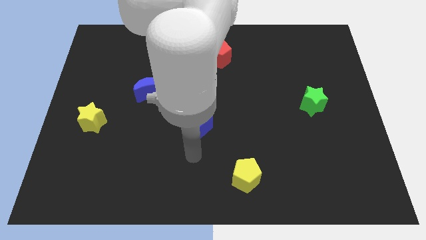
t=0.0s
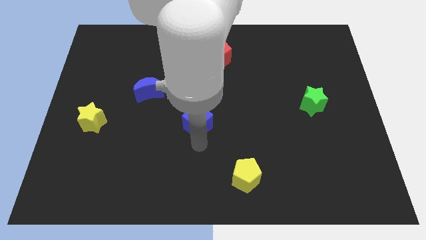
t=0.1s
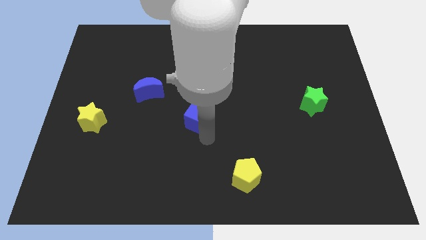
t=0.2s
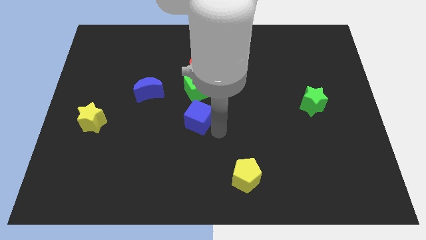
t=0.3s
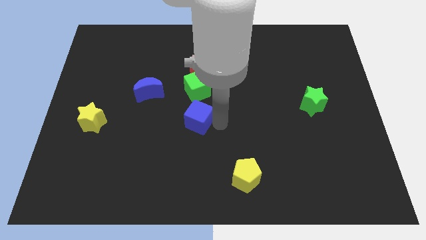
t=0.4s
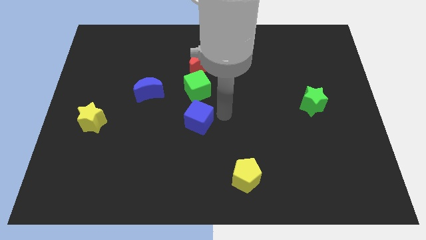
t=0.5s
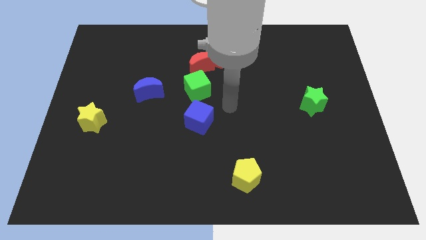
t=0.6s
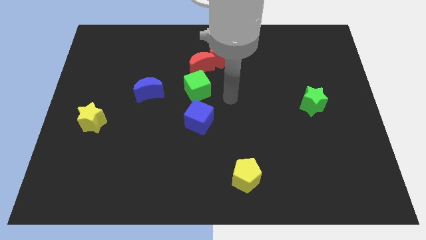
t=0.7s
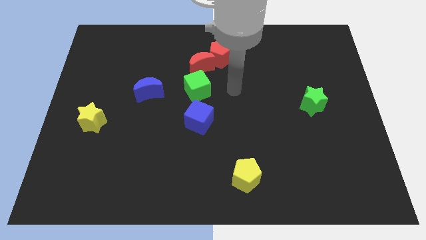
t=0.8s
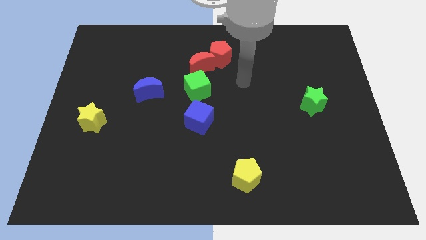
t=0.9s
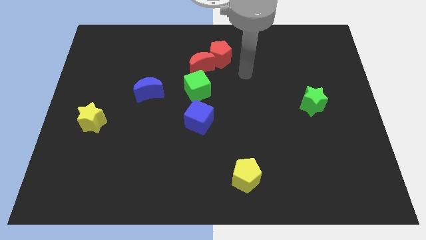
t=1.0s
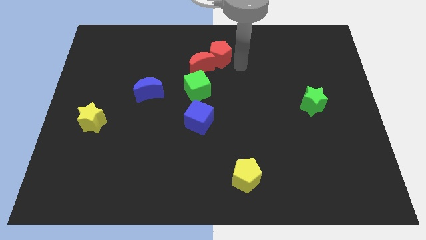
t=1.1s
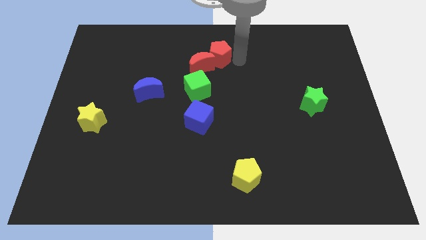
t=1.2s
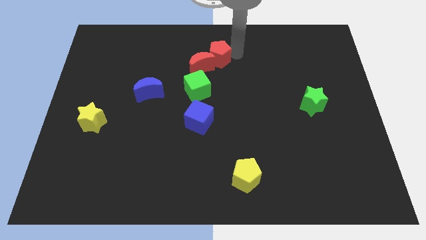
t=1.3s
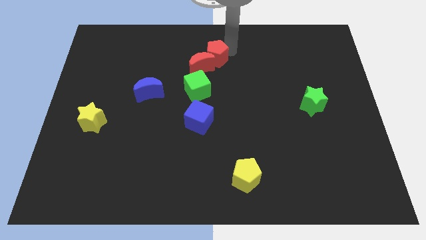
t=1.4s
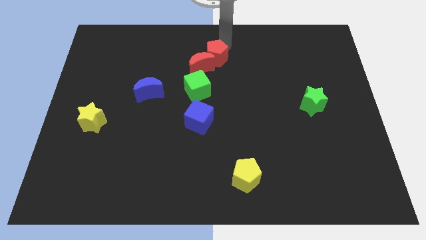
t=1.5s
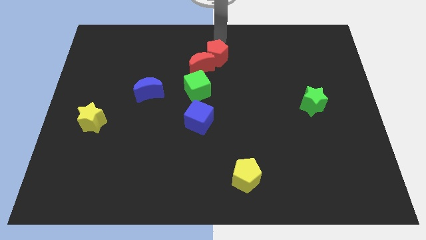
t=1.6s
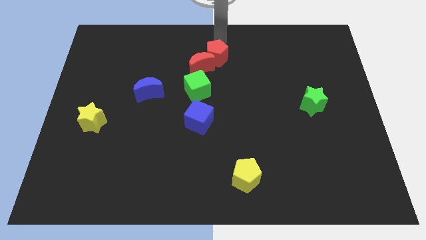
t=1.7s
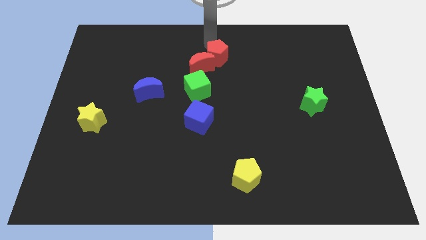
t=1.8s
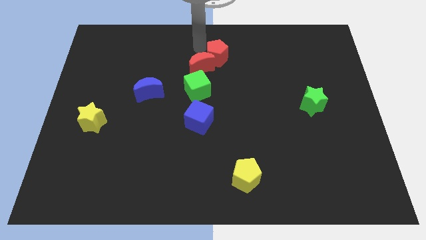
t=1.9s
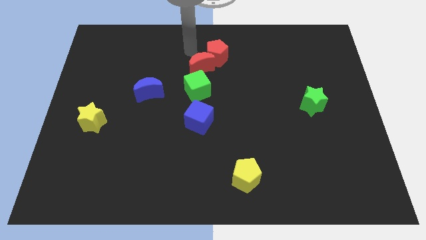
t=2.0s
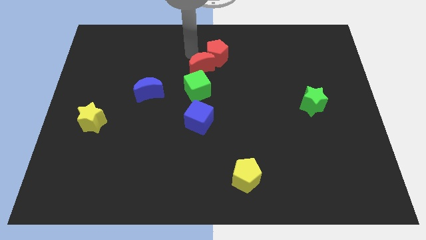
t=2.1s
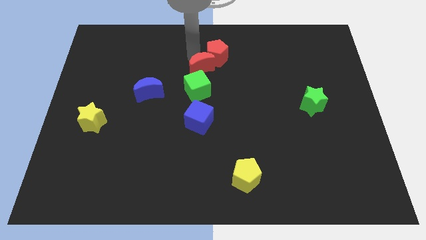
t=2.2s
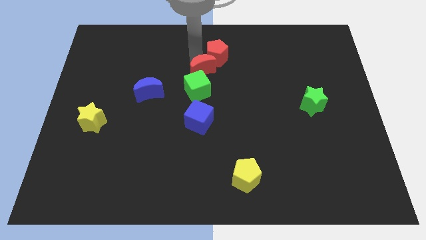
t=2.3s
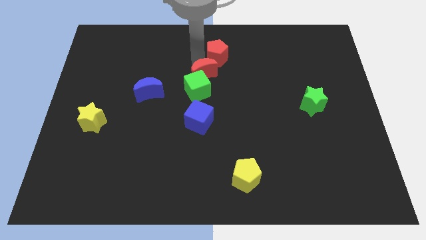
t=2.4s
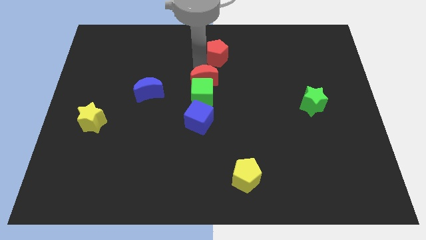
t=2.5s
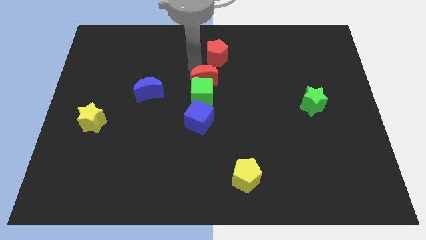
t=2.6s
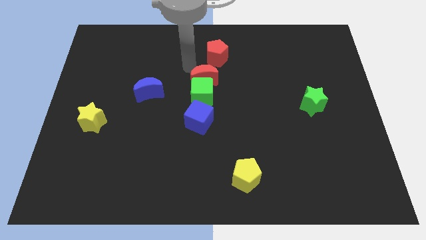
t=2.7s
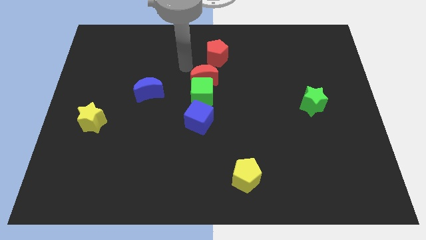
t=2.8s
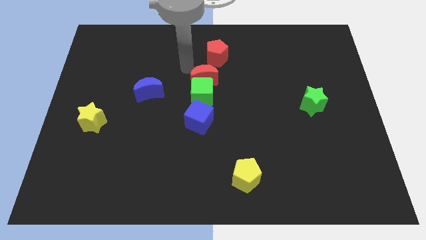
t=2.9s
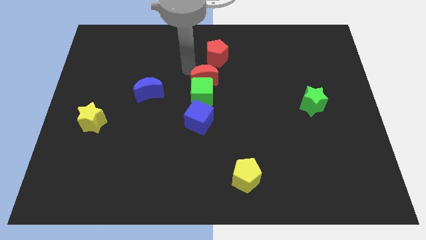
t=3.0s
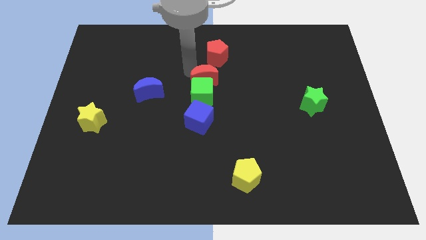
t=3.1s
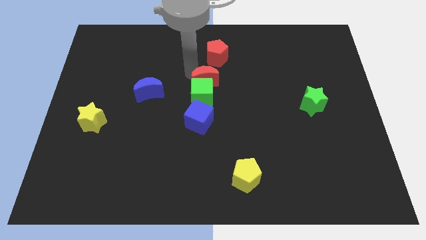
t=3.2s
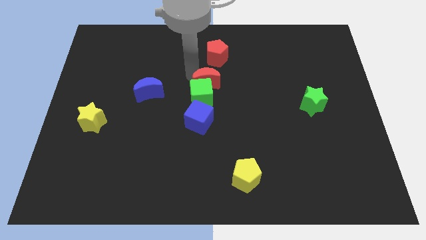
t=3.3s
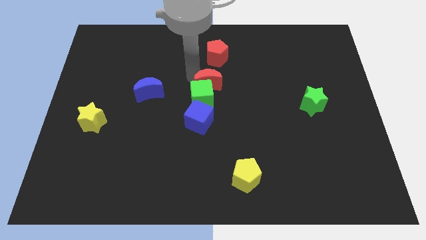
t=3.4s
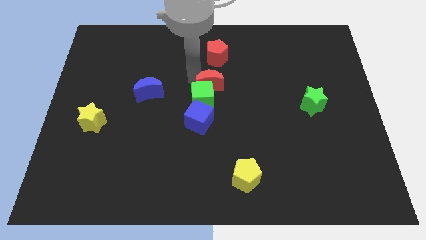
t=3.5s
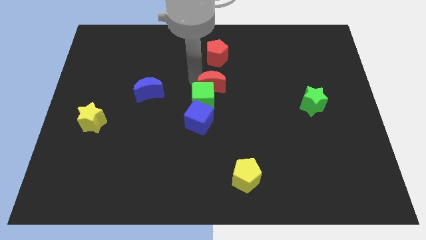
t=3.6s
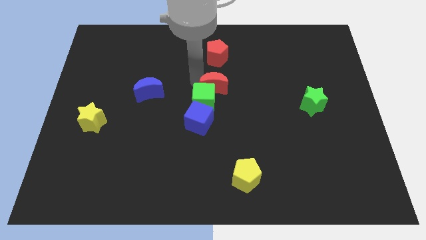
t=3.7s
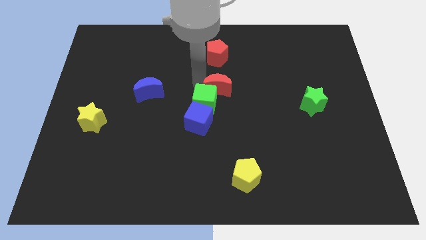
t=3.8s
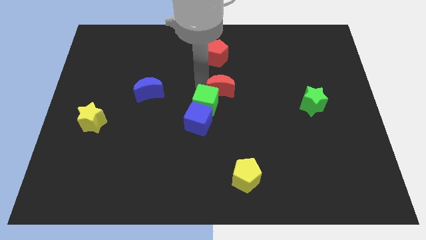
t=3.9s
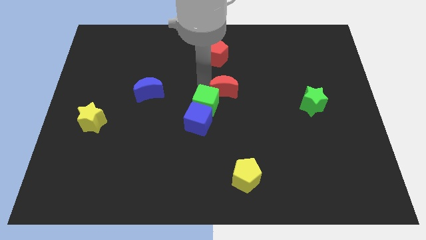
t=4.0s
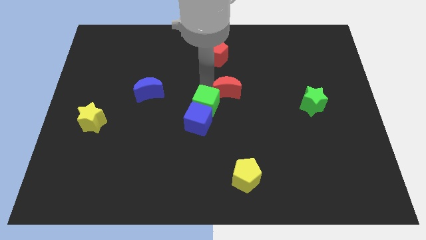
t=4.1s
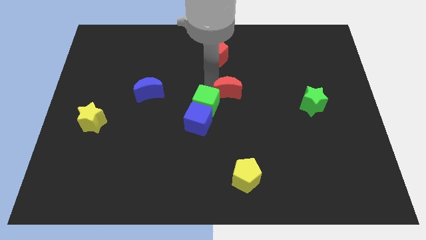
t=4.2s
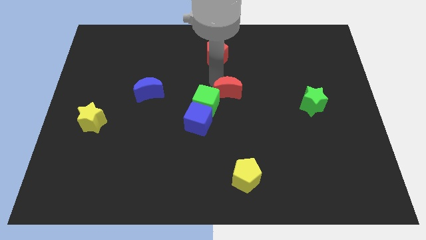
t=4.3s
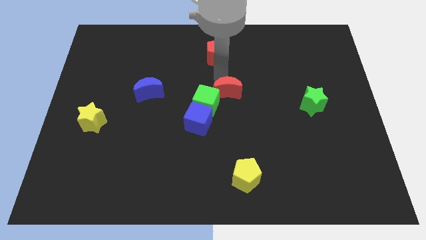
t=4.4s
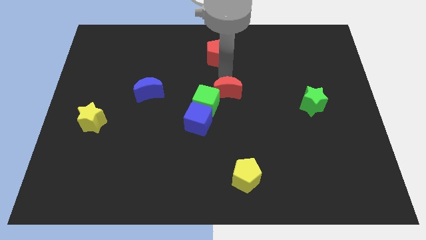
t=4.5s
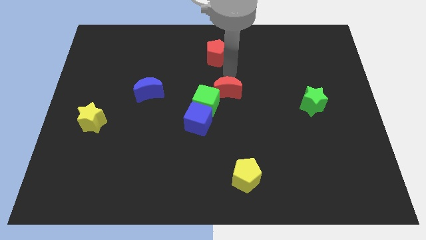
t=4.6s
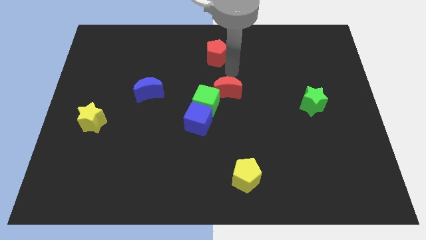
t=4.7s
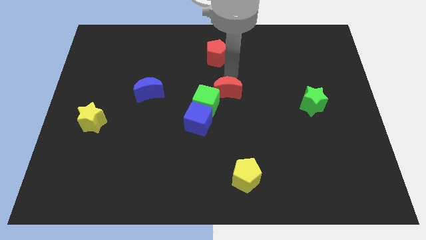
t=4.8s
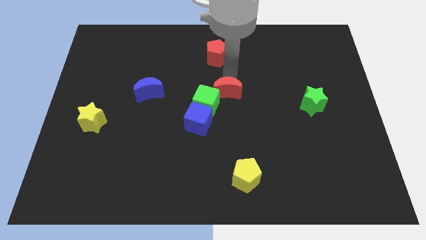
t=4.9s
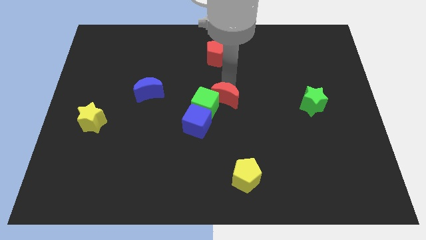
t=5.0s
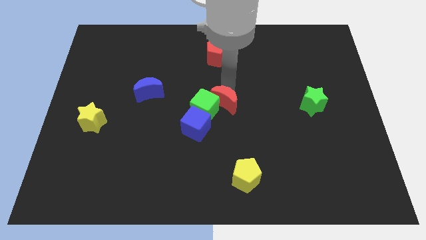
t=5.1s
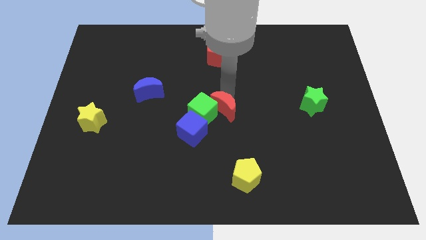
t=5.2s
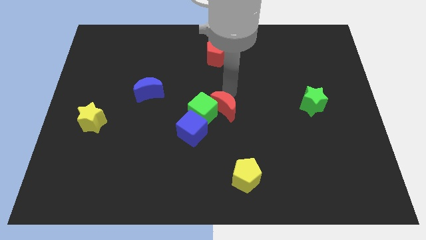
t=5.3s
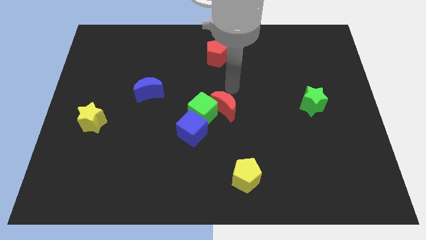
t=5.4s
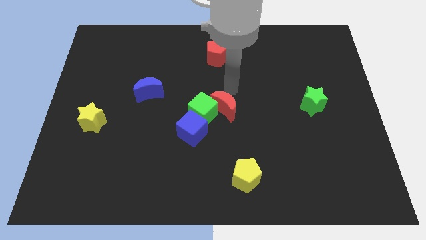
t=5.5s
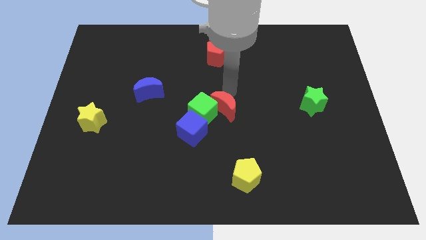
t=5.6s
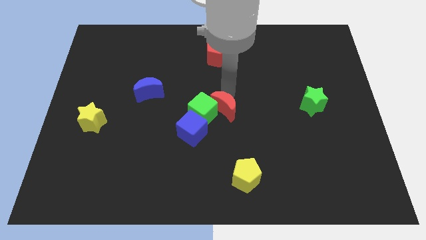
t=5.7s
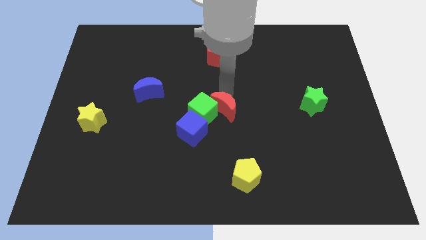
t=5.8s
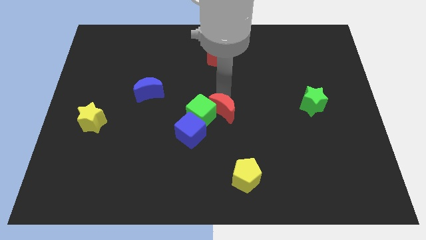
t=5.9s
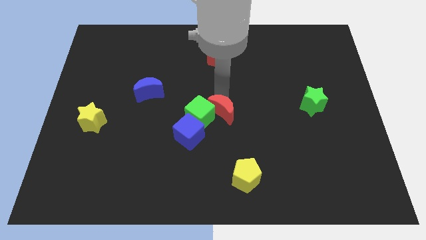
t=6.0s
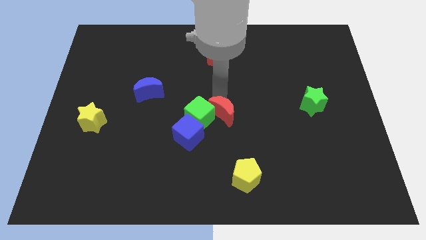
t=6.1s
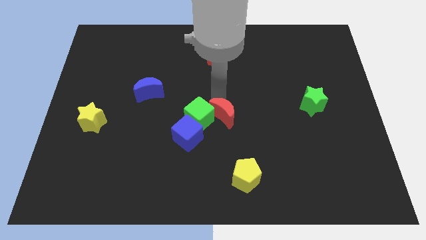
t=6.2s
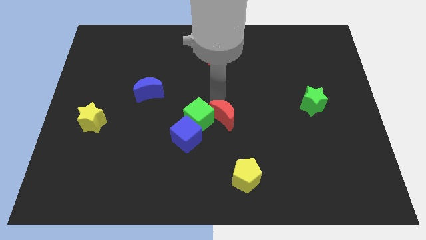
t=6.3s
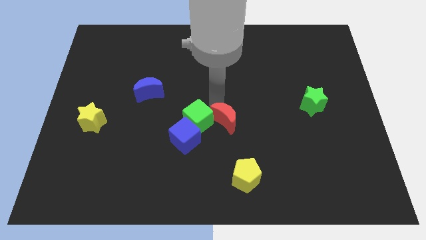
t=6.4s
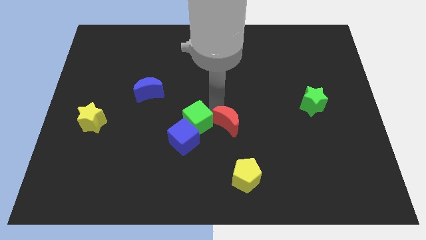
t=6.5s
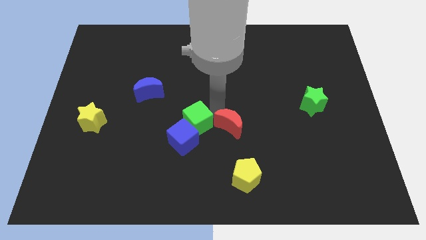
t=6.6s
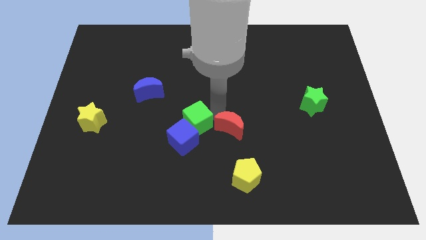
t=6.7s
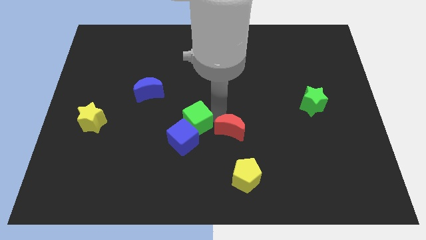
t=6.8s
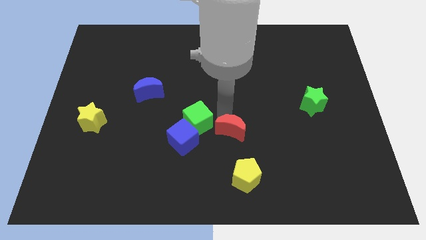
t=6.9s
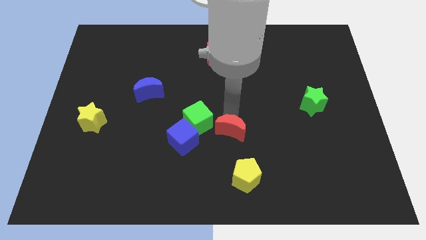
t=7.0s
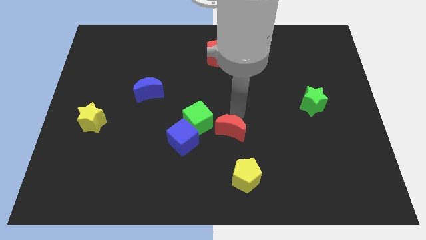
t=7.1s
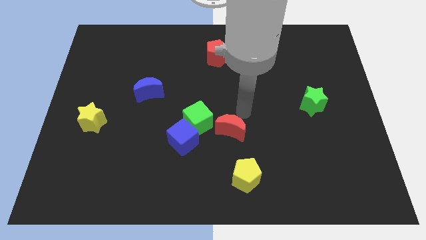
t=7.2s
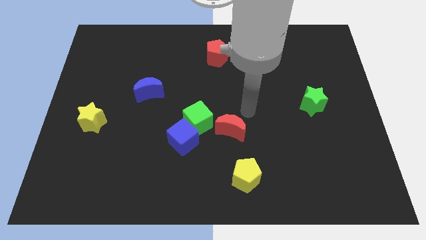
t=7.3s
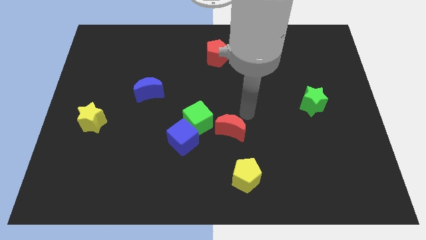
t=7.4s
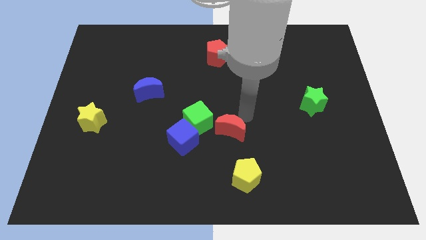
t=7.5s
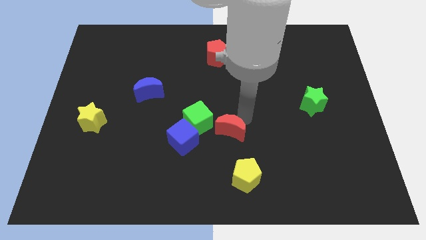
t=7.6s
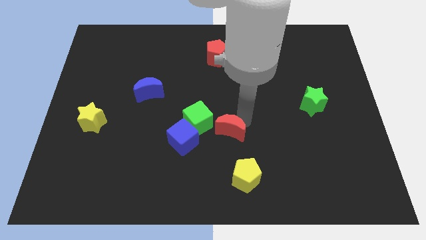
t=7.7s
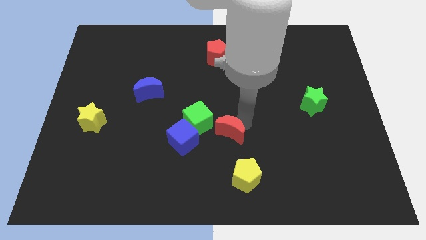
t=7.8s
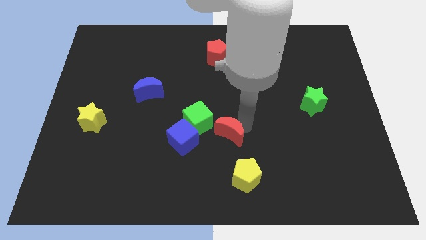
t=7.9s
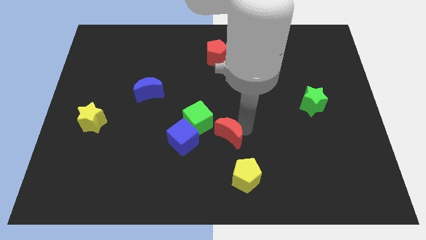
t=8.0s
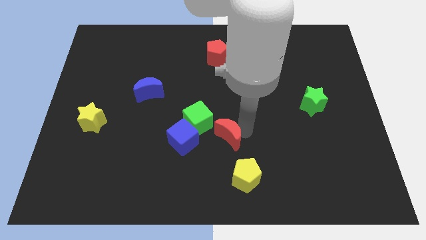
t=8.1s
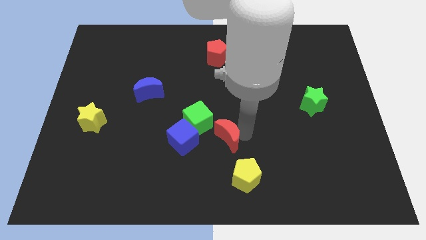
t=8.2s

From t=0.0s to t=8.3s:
move the red moon down
